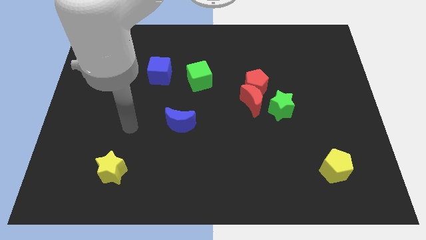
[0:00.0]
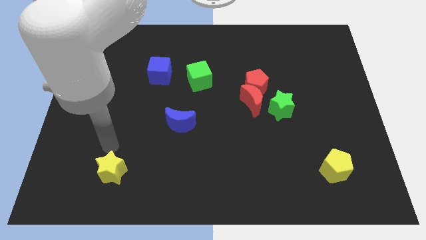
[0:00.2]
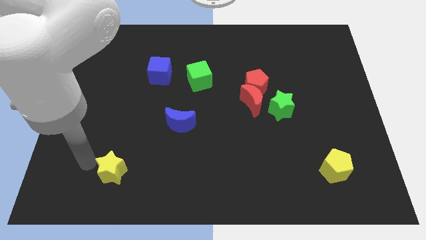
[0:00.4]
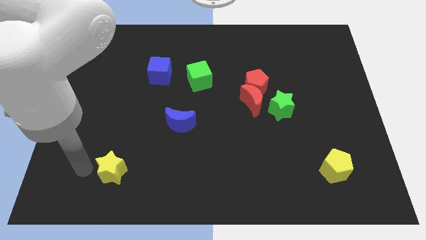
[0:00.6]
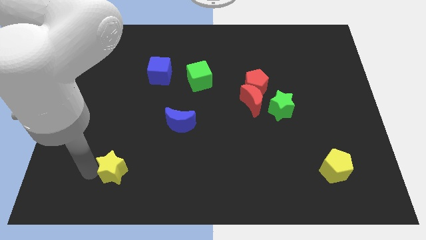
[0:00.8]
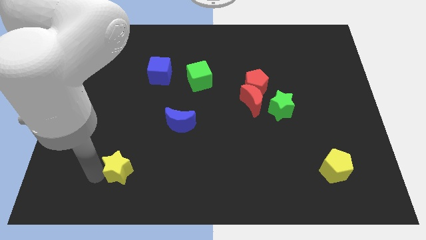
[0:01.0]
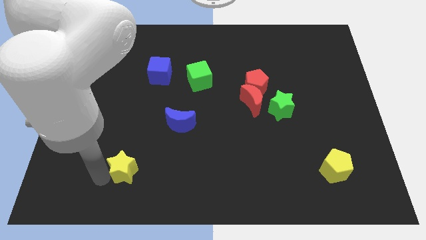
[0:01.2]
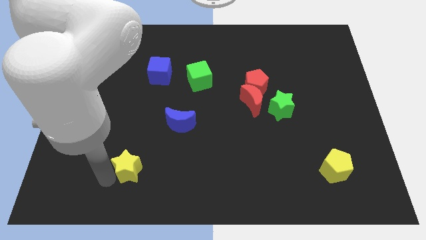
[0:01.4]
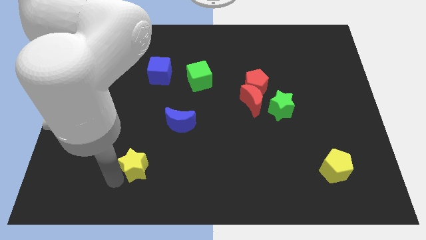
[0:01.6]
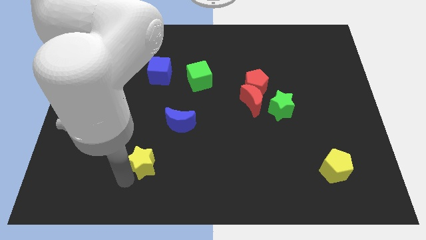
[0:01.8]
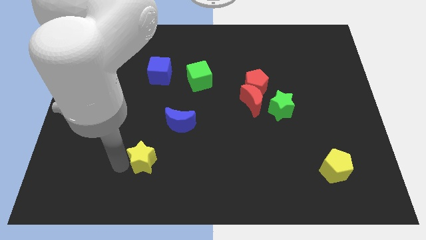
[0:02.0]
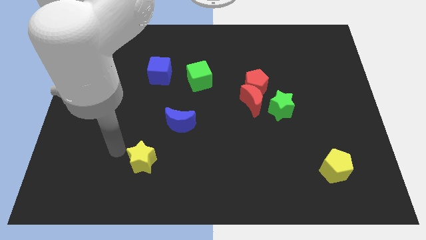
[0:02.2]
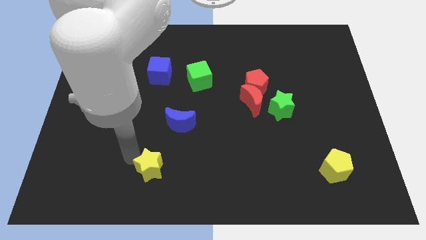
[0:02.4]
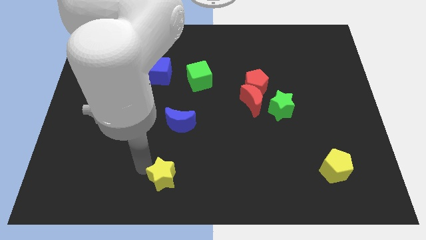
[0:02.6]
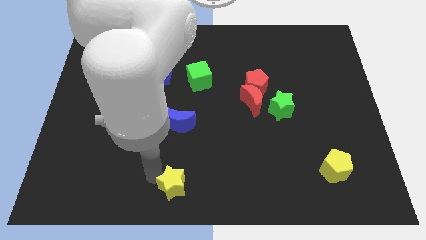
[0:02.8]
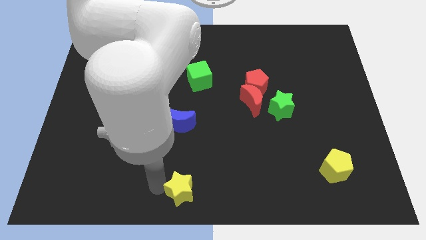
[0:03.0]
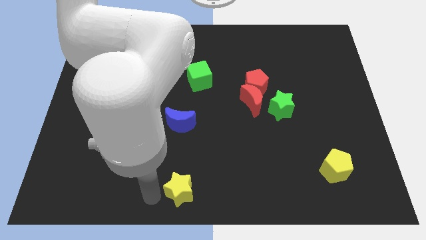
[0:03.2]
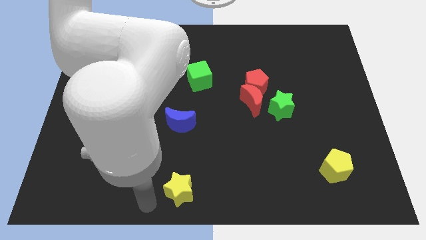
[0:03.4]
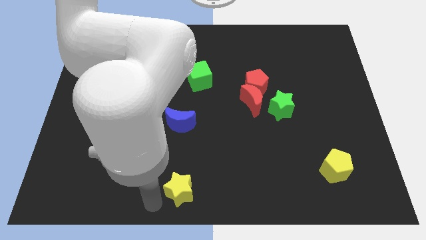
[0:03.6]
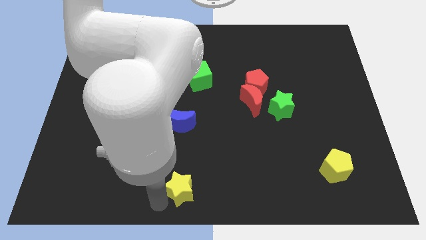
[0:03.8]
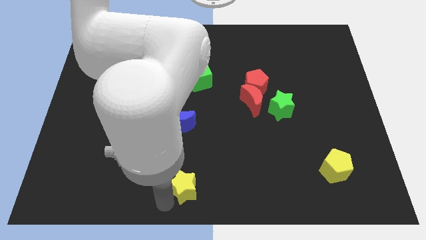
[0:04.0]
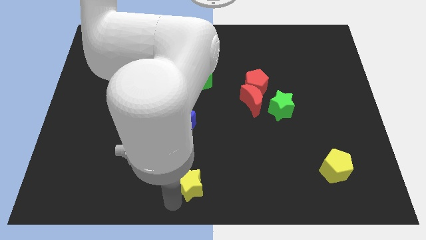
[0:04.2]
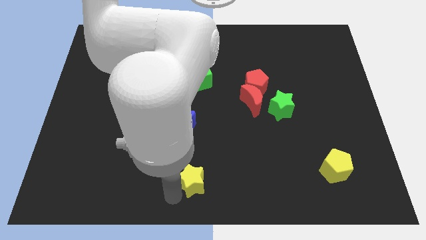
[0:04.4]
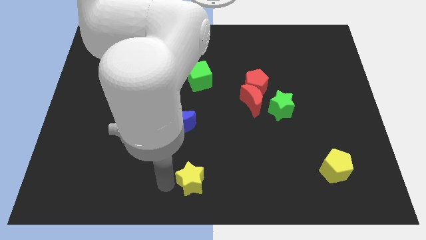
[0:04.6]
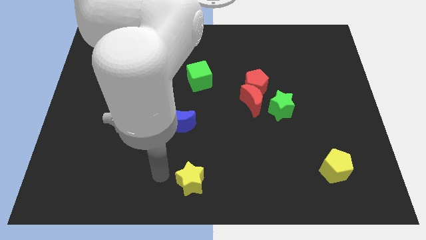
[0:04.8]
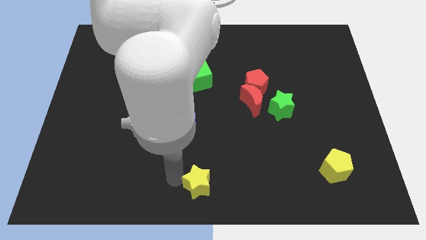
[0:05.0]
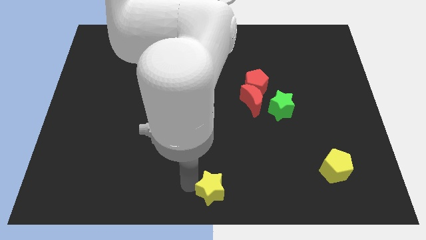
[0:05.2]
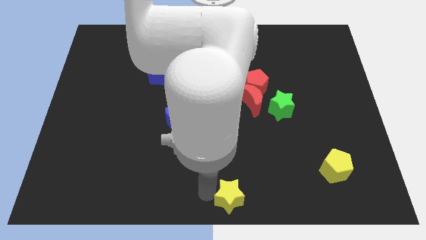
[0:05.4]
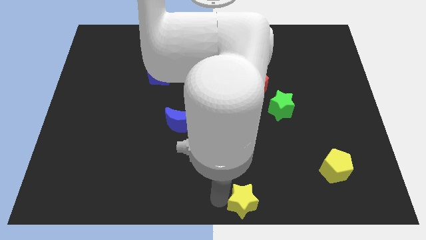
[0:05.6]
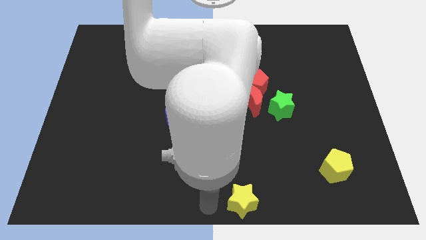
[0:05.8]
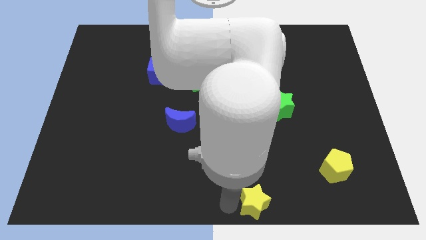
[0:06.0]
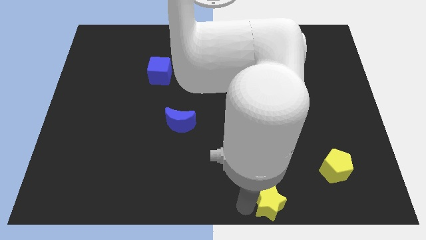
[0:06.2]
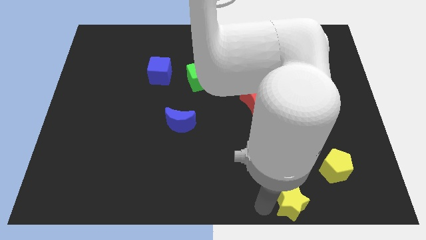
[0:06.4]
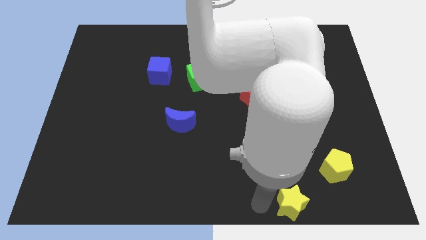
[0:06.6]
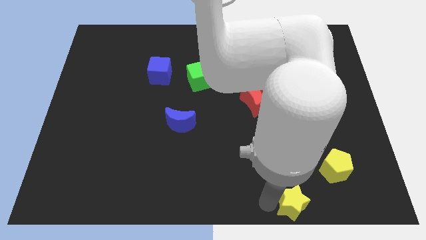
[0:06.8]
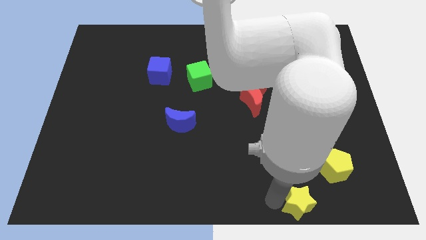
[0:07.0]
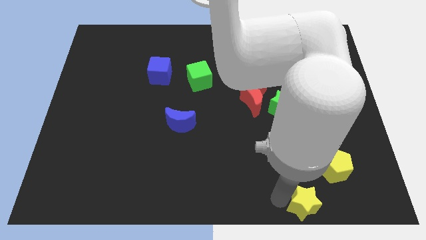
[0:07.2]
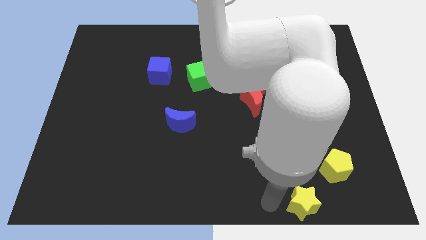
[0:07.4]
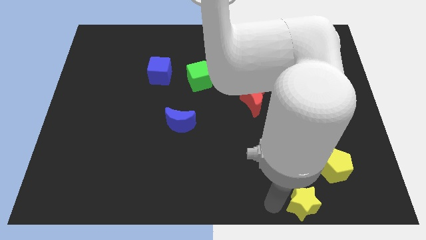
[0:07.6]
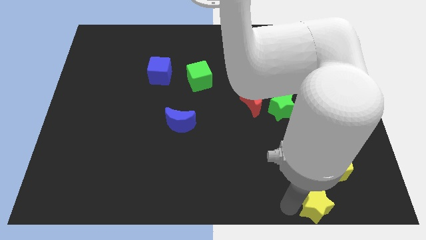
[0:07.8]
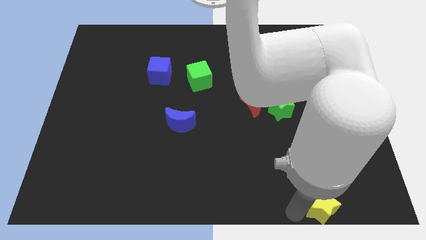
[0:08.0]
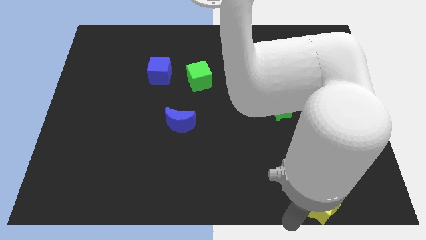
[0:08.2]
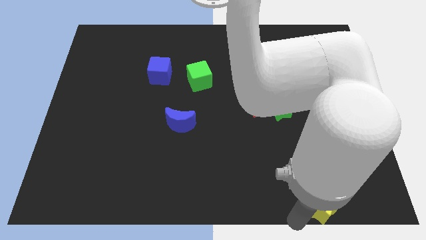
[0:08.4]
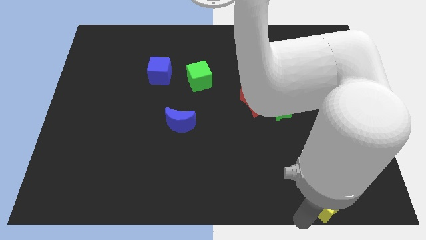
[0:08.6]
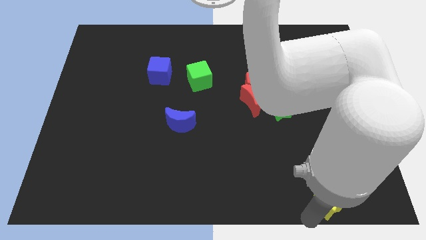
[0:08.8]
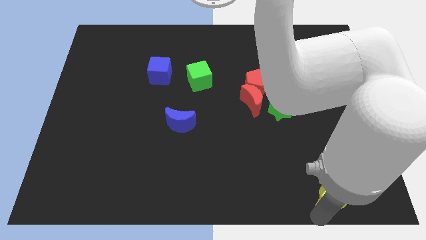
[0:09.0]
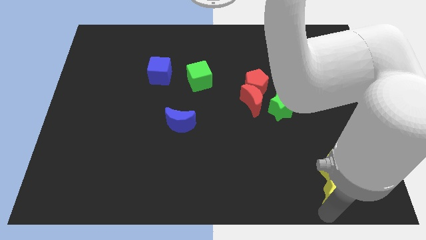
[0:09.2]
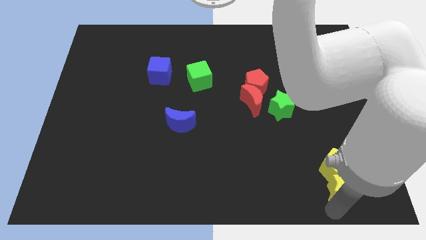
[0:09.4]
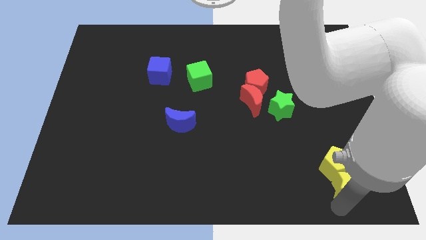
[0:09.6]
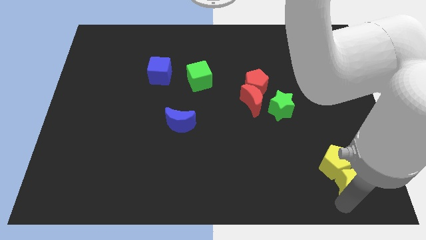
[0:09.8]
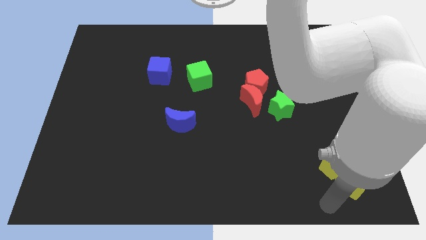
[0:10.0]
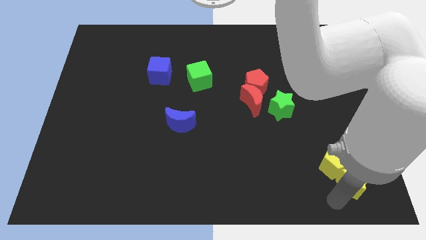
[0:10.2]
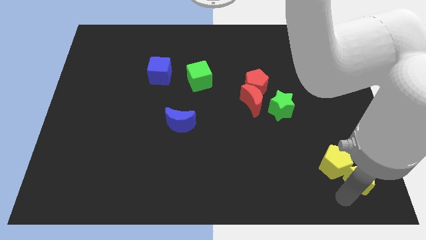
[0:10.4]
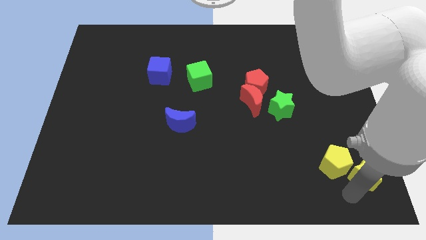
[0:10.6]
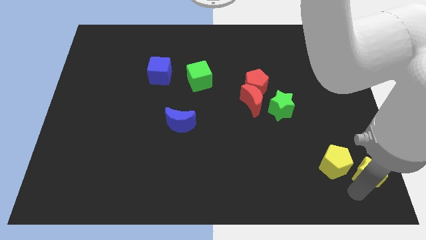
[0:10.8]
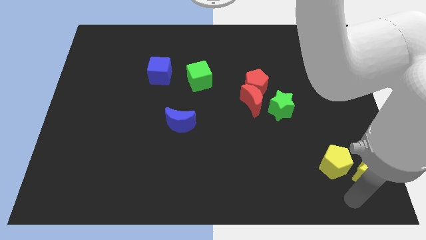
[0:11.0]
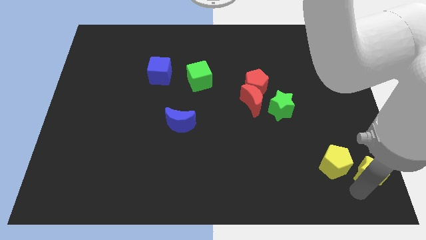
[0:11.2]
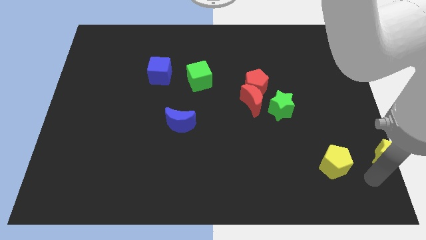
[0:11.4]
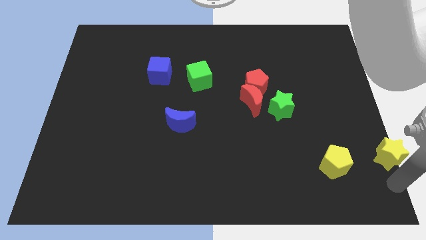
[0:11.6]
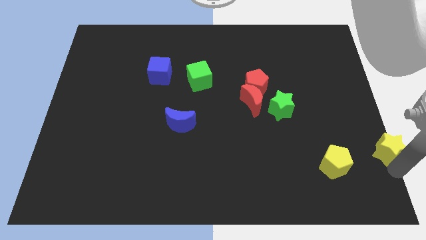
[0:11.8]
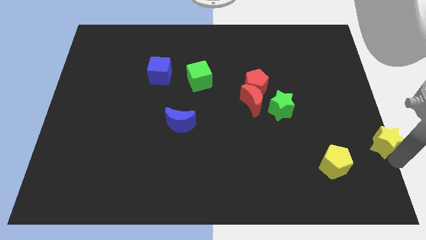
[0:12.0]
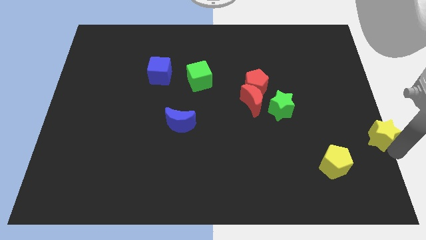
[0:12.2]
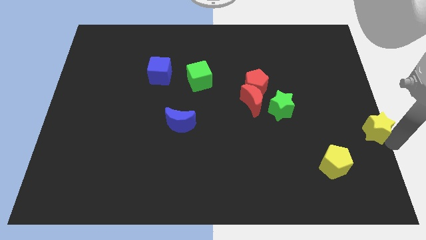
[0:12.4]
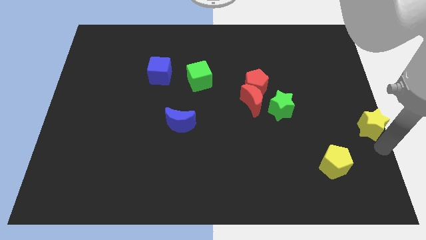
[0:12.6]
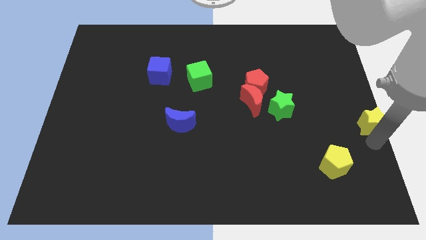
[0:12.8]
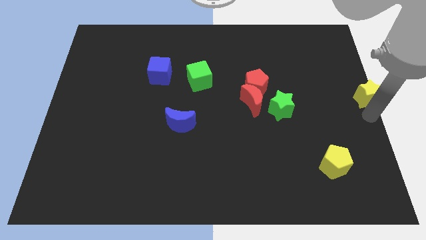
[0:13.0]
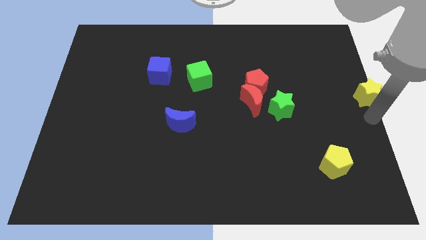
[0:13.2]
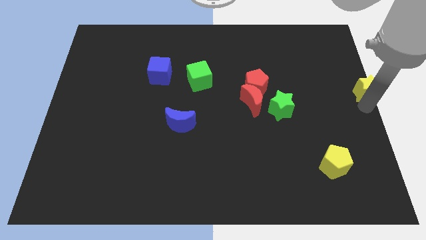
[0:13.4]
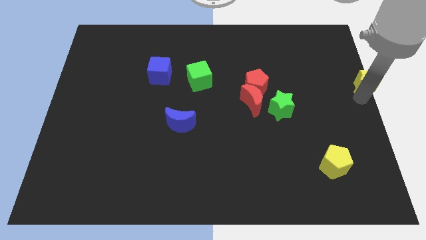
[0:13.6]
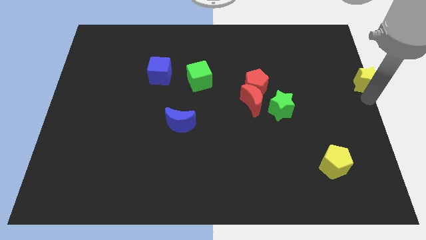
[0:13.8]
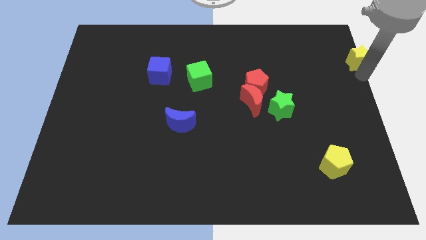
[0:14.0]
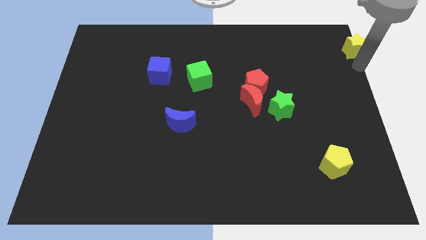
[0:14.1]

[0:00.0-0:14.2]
push the yellow star to the top right of the board

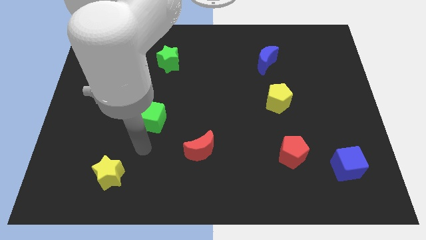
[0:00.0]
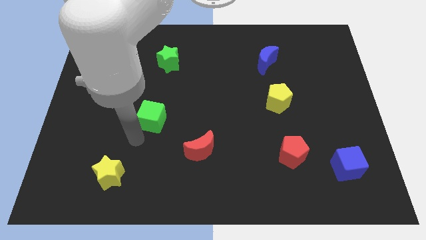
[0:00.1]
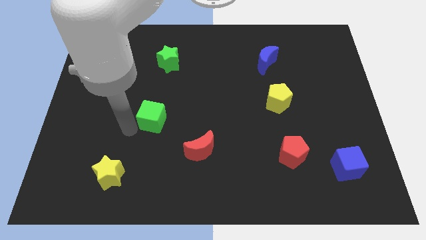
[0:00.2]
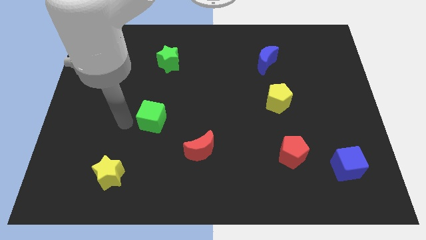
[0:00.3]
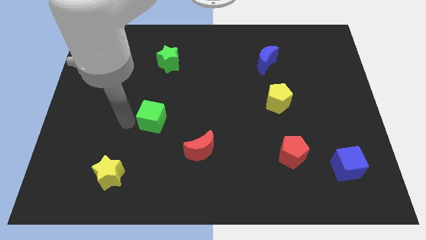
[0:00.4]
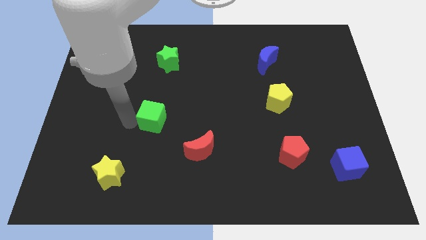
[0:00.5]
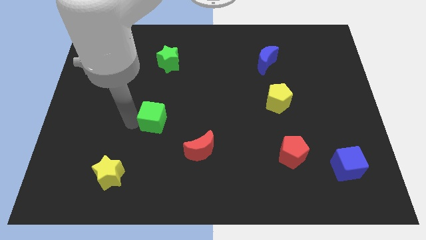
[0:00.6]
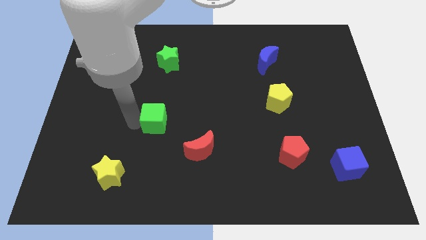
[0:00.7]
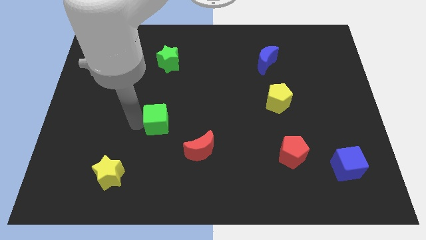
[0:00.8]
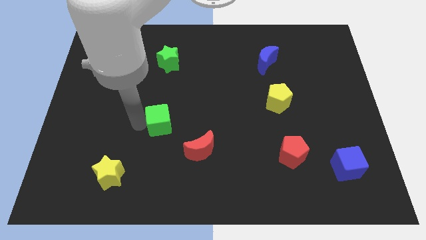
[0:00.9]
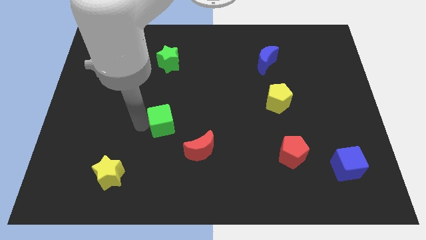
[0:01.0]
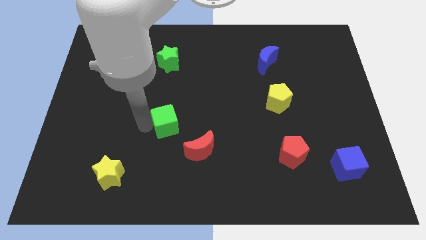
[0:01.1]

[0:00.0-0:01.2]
slide the green cube to the center
